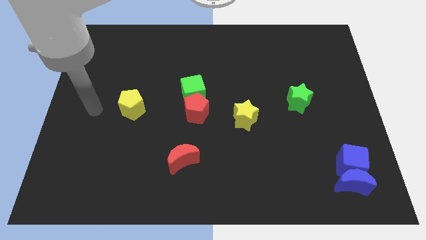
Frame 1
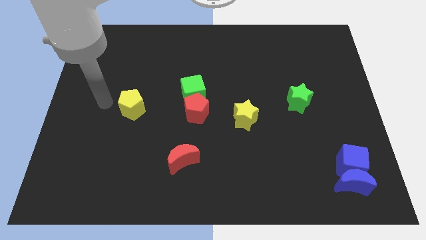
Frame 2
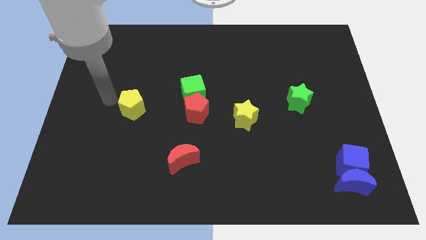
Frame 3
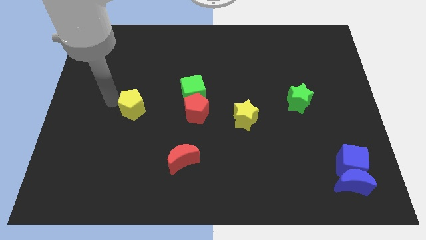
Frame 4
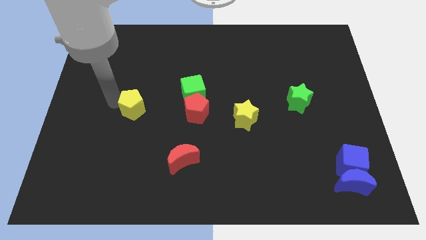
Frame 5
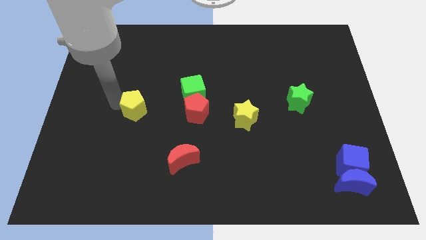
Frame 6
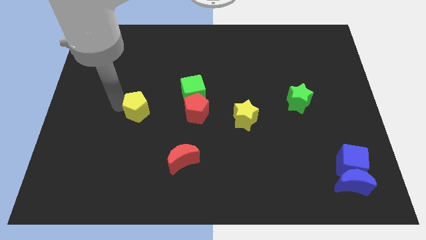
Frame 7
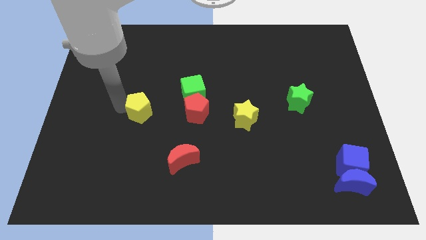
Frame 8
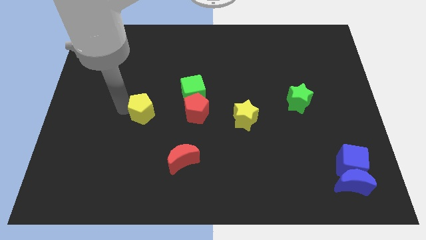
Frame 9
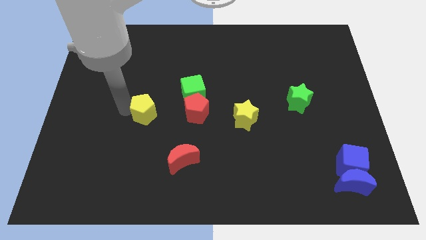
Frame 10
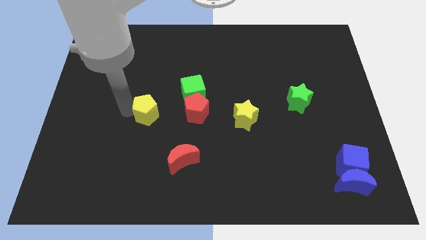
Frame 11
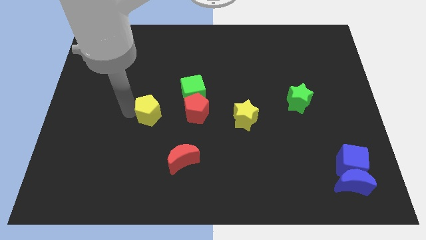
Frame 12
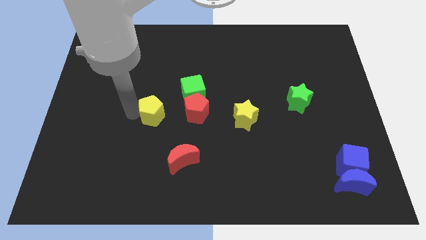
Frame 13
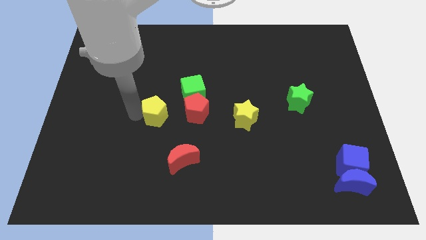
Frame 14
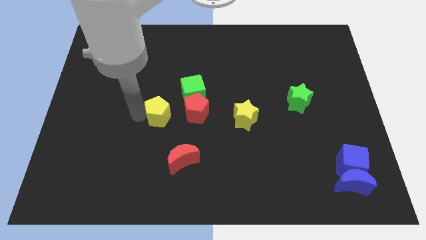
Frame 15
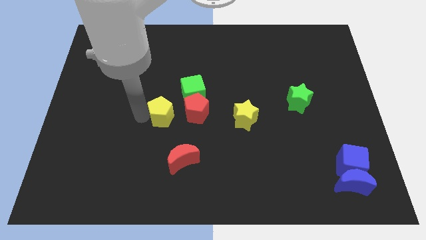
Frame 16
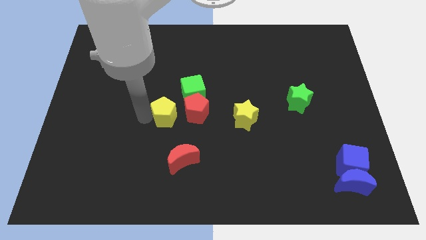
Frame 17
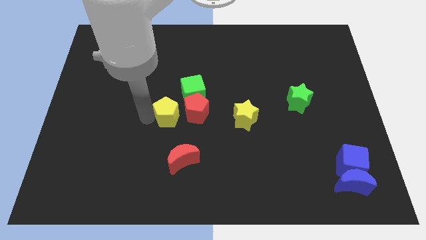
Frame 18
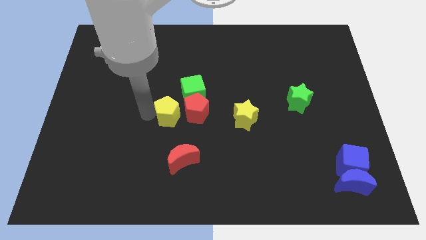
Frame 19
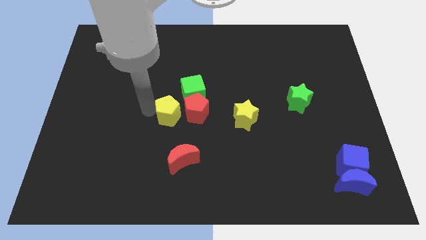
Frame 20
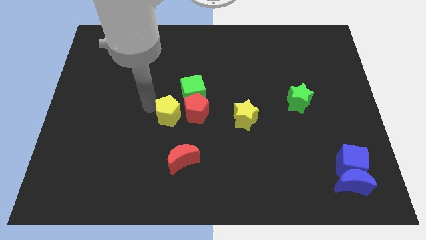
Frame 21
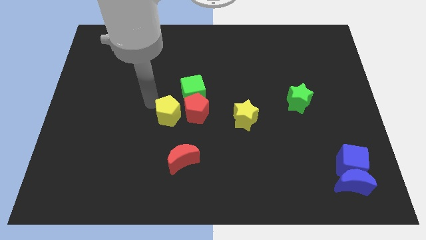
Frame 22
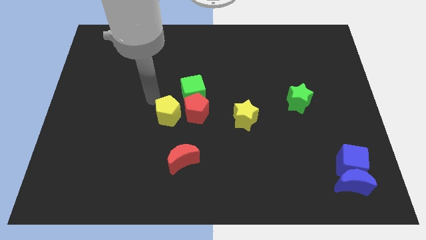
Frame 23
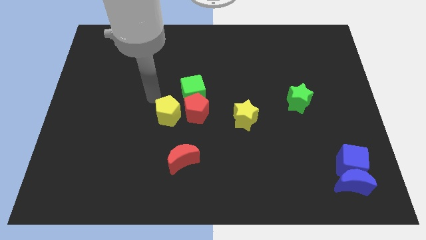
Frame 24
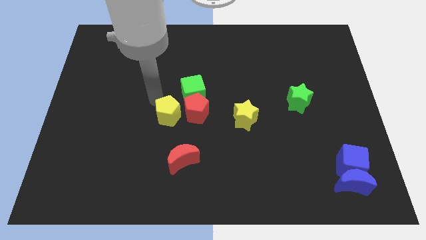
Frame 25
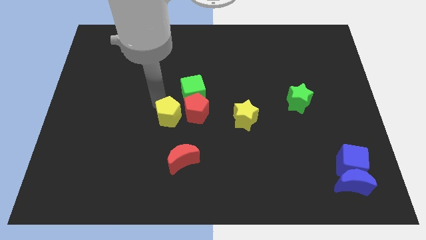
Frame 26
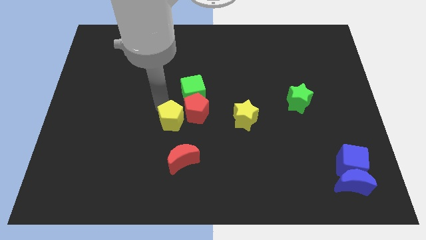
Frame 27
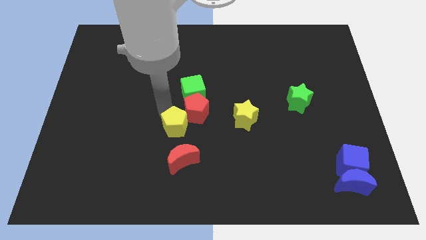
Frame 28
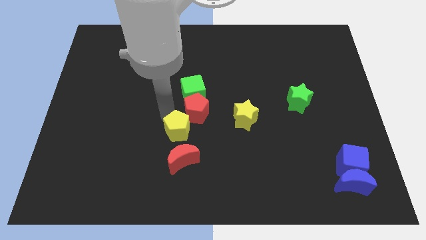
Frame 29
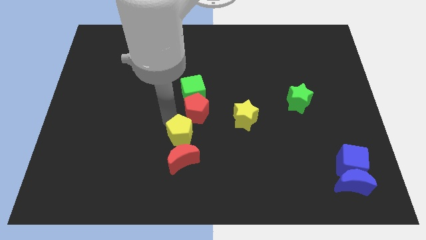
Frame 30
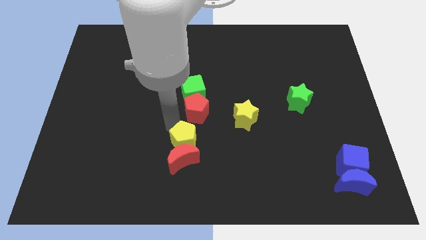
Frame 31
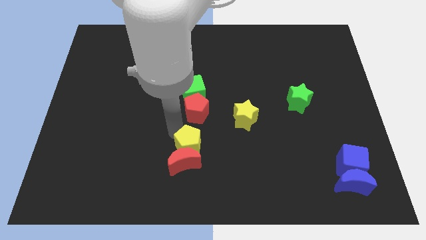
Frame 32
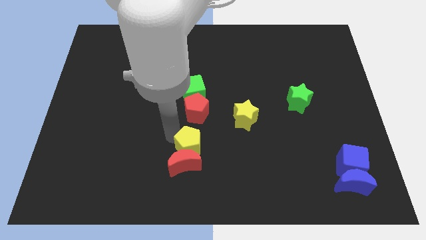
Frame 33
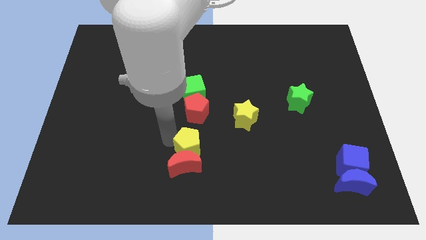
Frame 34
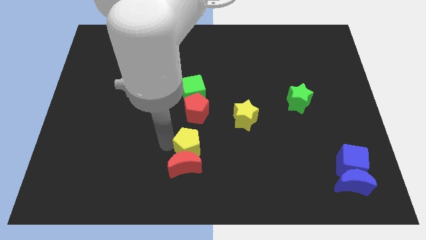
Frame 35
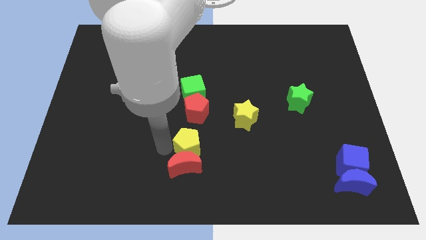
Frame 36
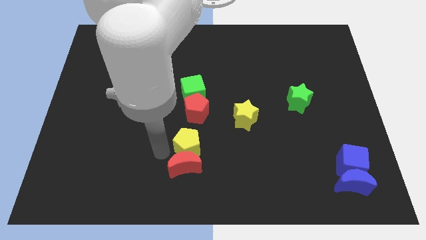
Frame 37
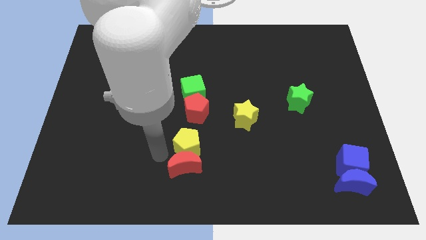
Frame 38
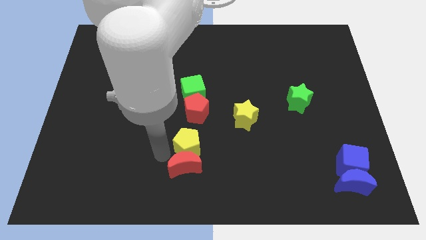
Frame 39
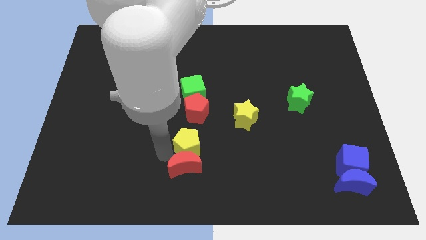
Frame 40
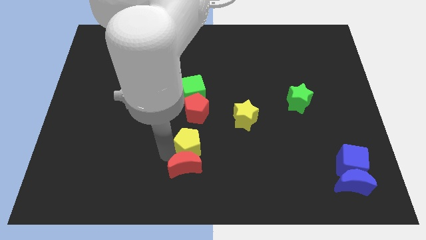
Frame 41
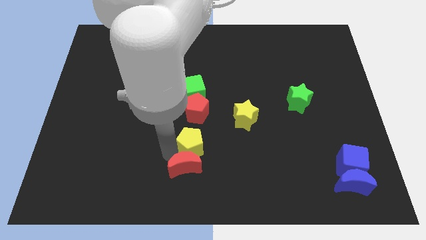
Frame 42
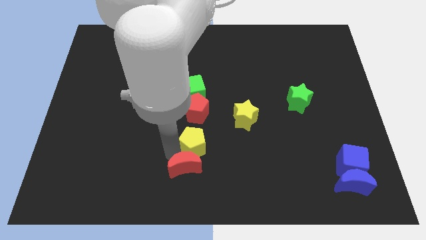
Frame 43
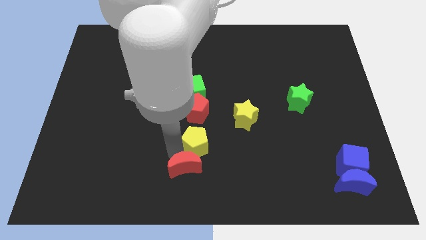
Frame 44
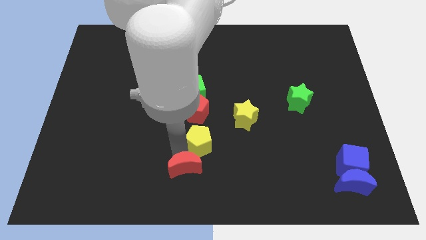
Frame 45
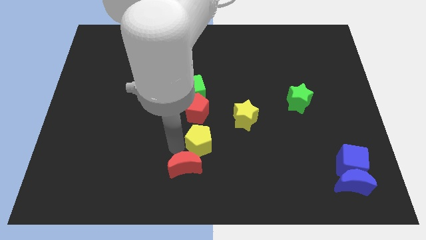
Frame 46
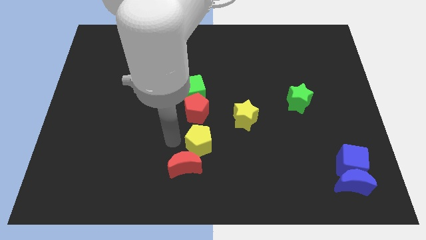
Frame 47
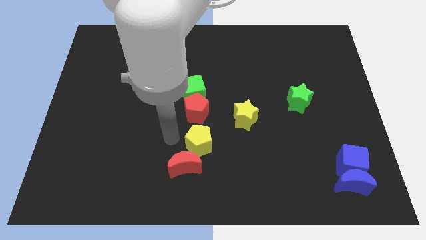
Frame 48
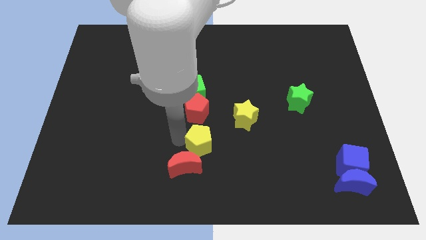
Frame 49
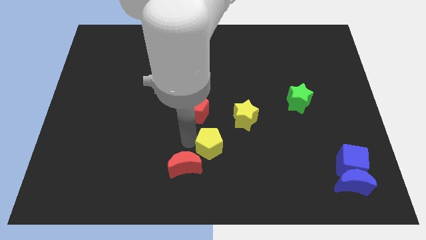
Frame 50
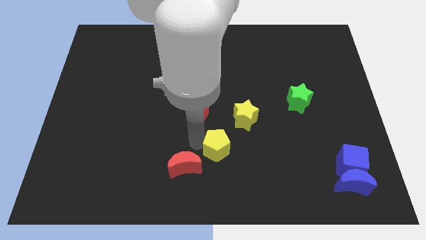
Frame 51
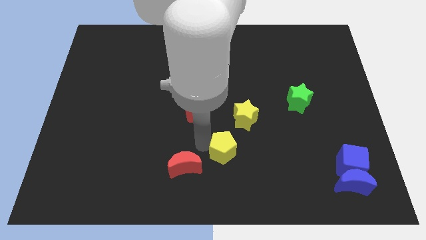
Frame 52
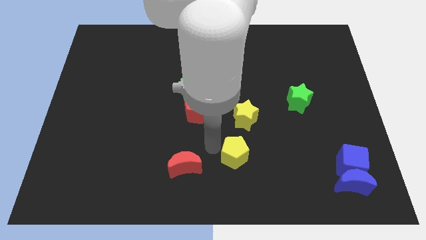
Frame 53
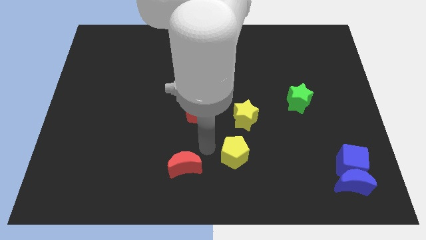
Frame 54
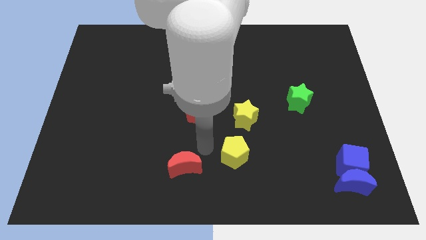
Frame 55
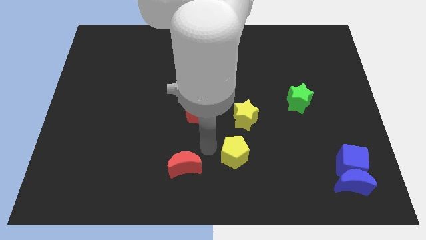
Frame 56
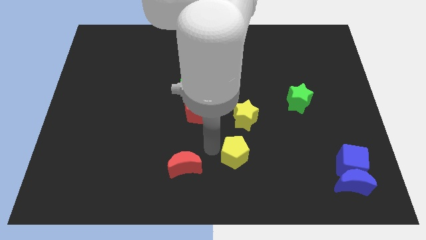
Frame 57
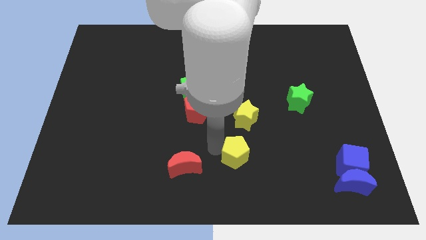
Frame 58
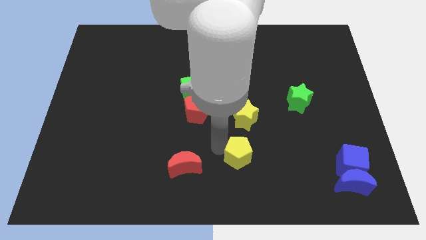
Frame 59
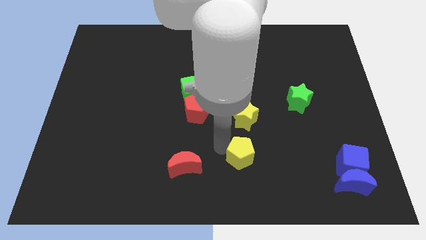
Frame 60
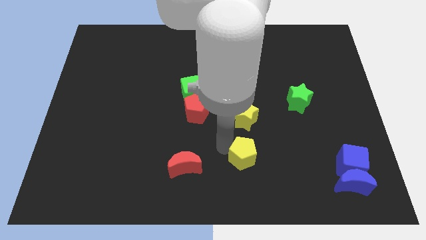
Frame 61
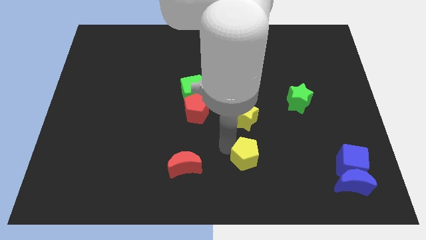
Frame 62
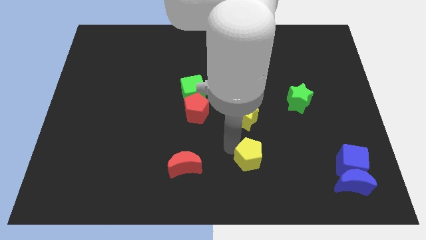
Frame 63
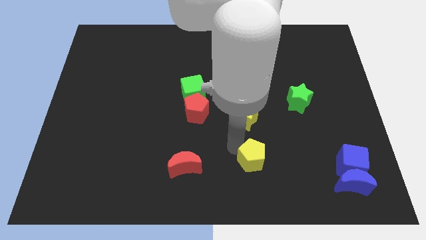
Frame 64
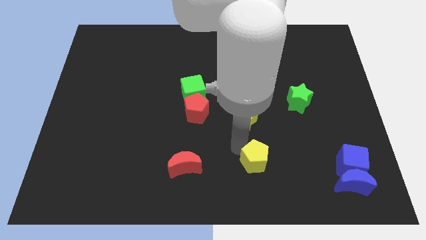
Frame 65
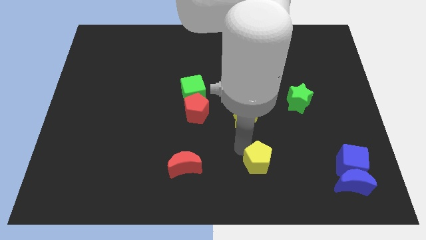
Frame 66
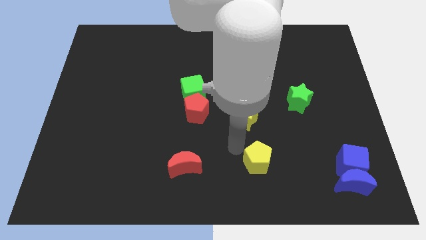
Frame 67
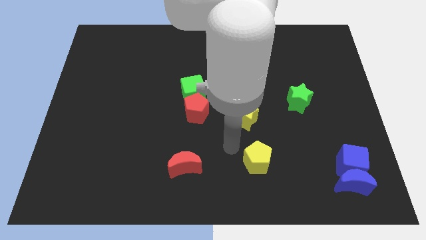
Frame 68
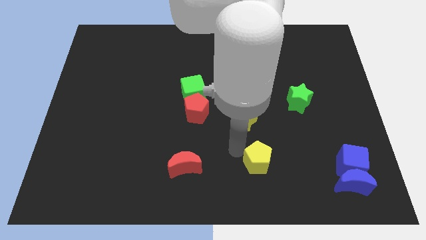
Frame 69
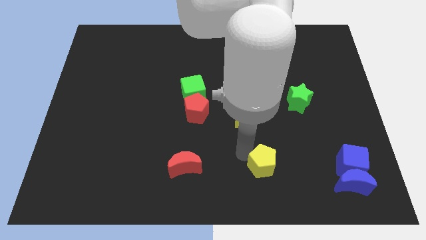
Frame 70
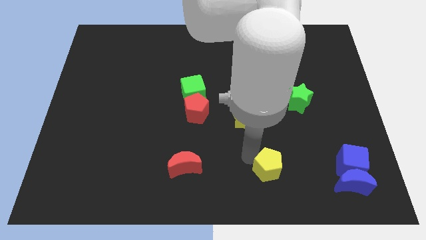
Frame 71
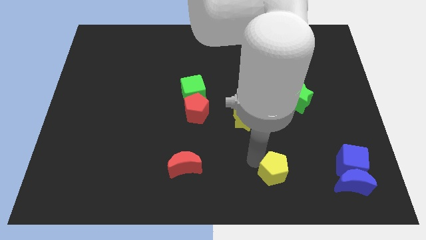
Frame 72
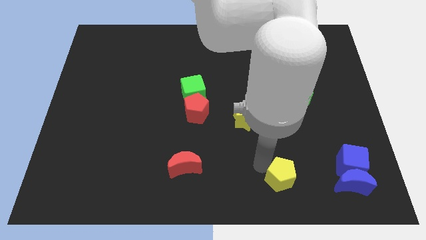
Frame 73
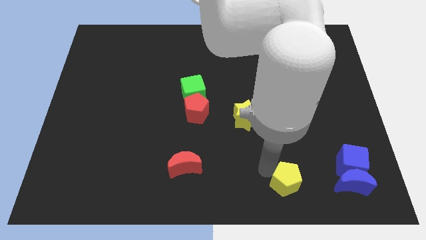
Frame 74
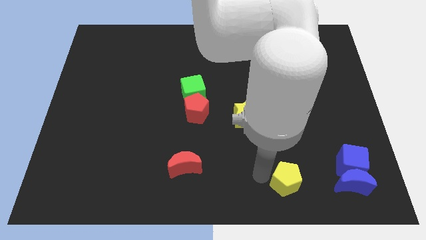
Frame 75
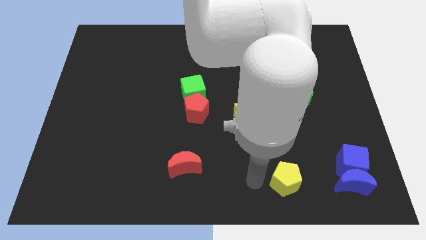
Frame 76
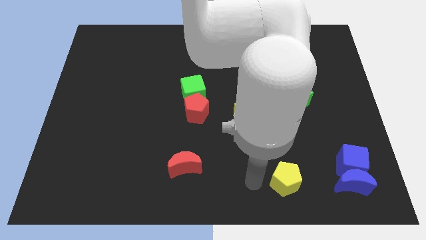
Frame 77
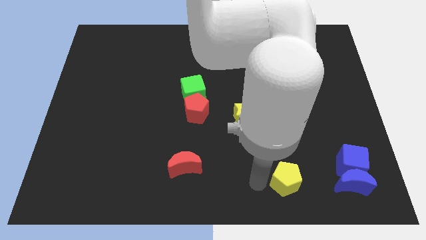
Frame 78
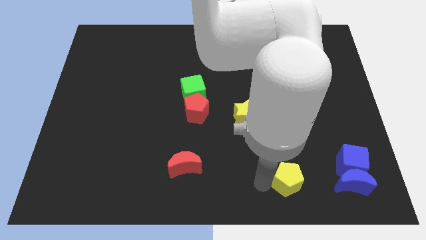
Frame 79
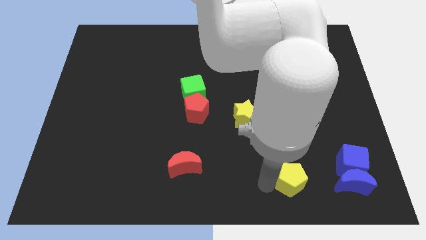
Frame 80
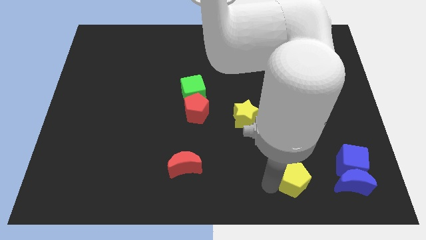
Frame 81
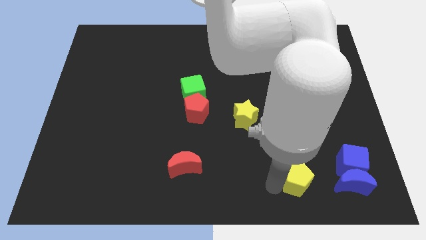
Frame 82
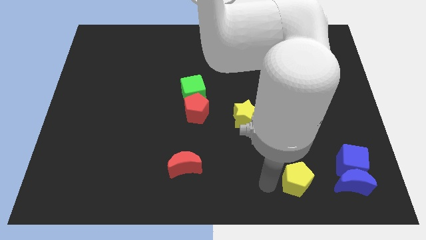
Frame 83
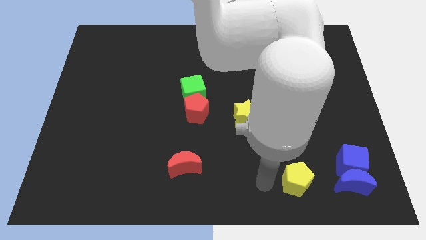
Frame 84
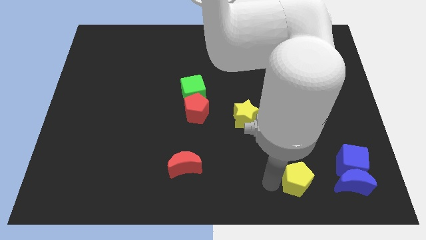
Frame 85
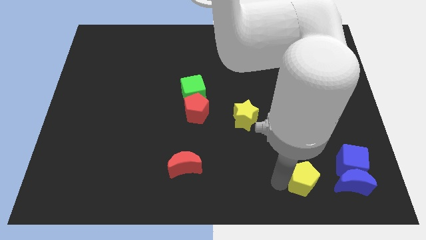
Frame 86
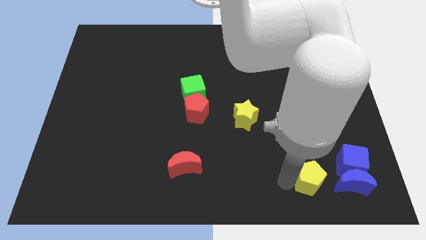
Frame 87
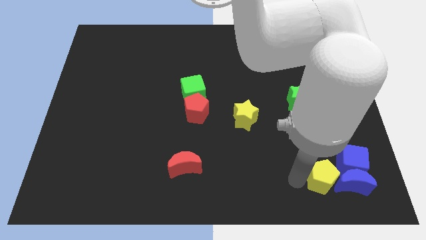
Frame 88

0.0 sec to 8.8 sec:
slide the yellow pentagon towards the blue moon
